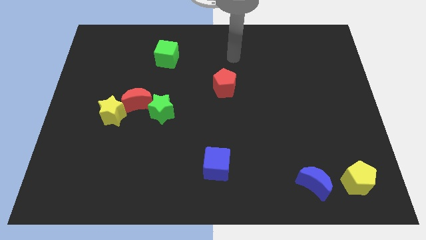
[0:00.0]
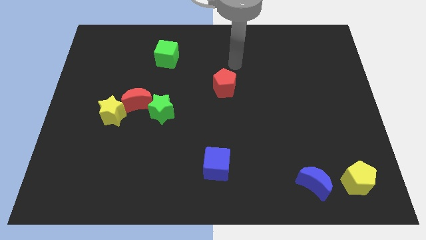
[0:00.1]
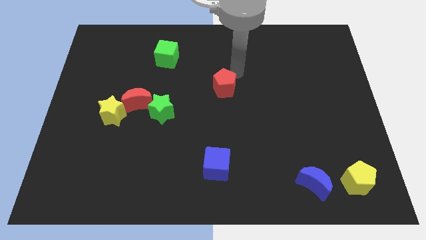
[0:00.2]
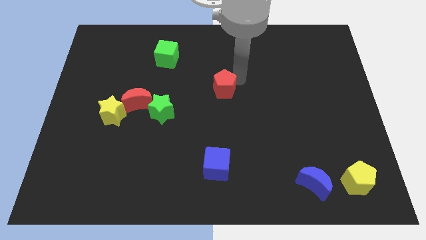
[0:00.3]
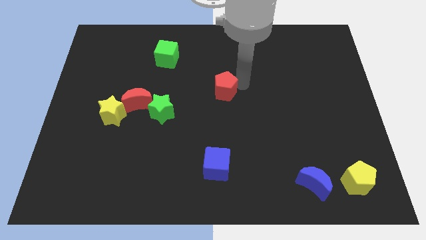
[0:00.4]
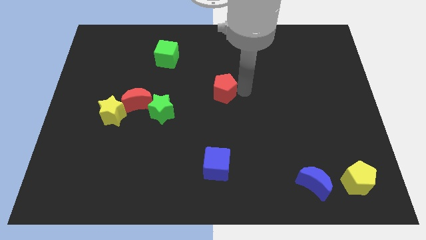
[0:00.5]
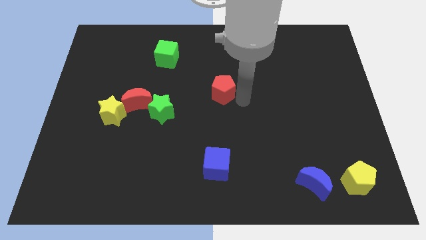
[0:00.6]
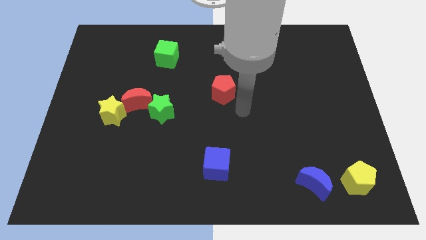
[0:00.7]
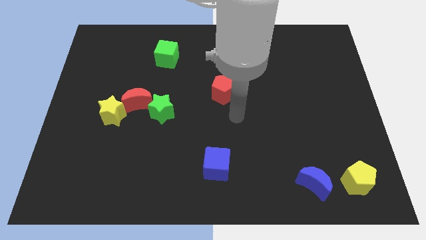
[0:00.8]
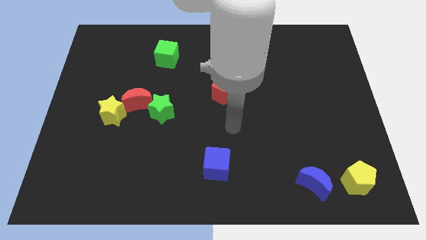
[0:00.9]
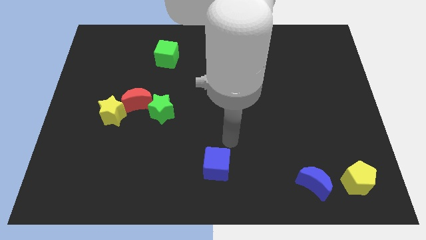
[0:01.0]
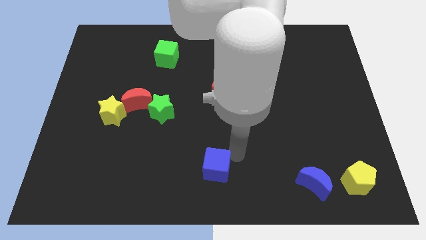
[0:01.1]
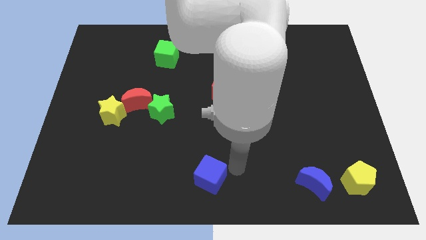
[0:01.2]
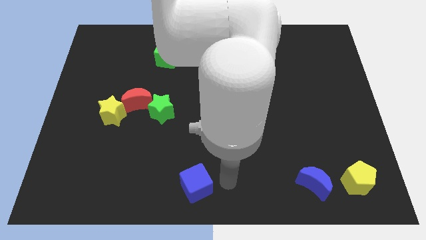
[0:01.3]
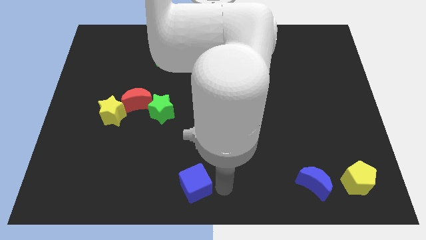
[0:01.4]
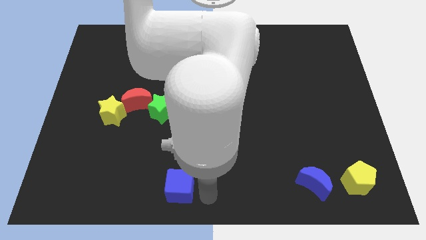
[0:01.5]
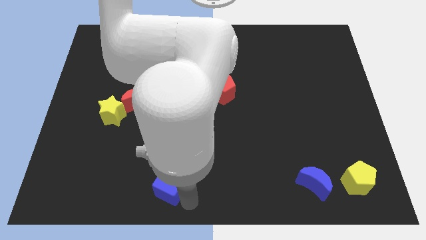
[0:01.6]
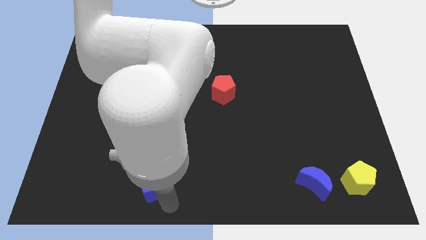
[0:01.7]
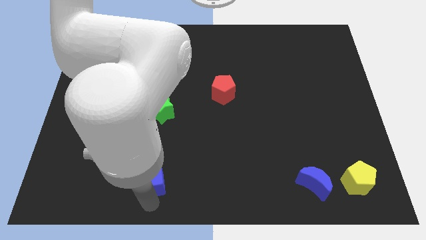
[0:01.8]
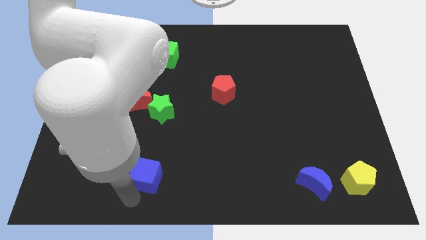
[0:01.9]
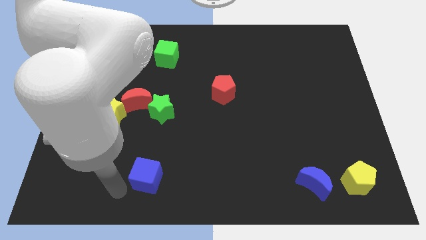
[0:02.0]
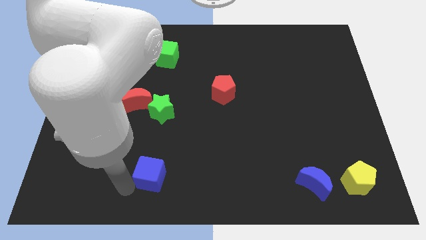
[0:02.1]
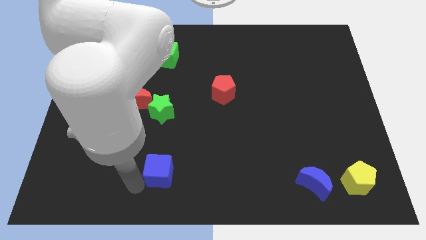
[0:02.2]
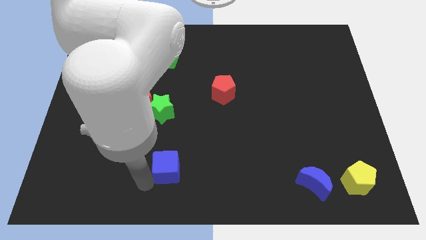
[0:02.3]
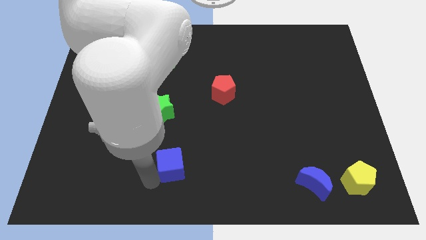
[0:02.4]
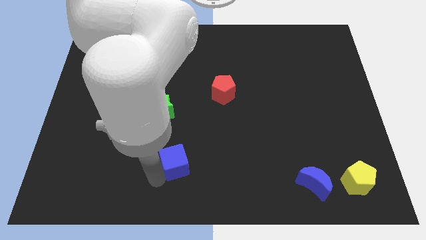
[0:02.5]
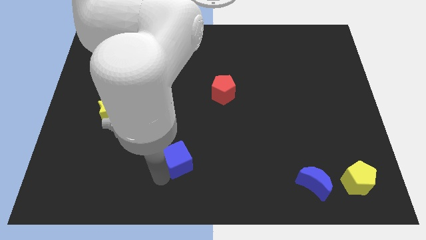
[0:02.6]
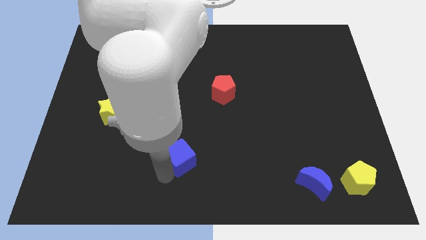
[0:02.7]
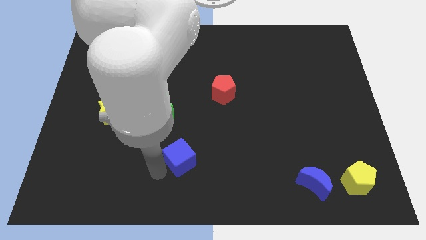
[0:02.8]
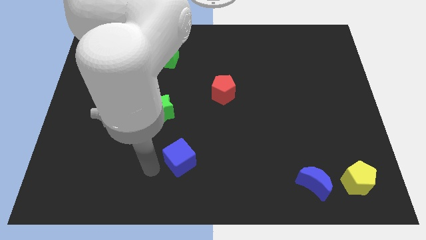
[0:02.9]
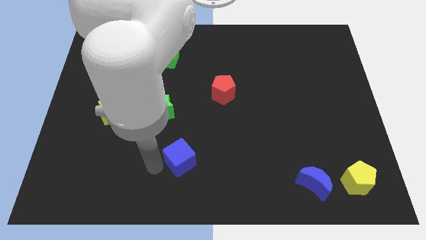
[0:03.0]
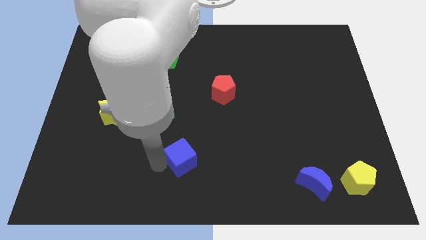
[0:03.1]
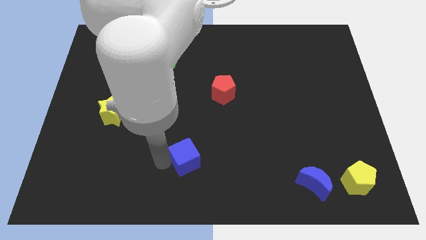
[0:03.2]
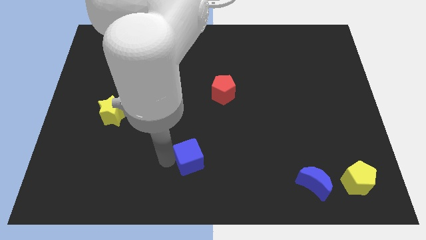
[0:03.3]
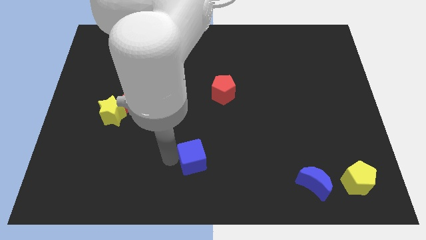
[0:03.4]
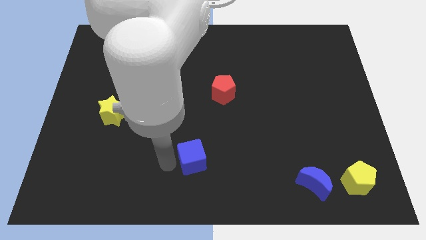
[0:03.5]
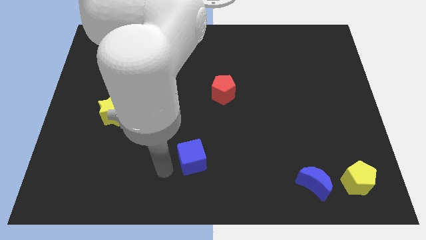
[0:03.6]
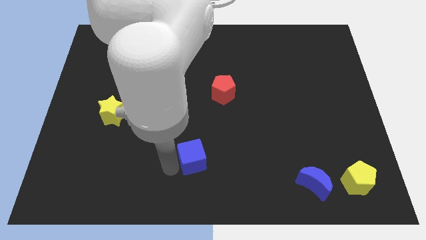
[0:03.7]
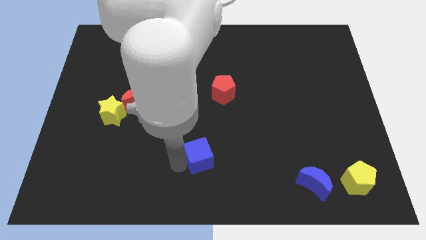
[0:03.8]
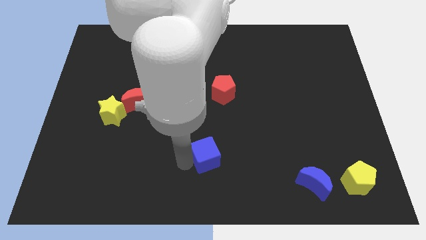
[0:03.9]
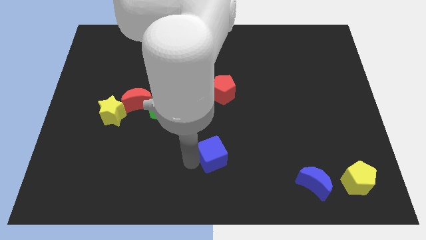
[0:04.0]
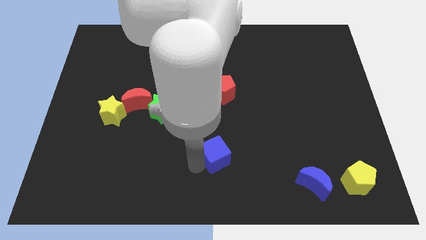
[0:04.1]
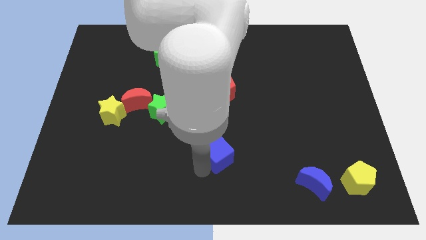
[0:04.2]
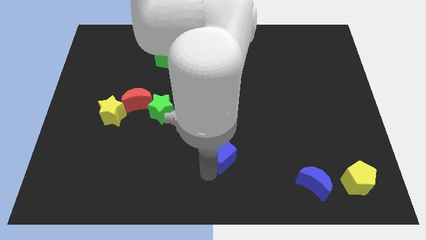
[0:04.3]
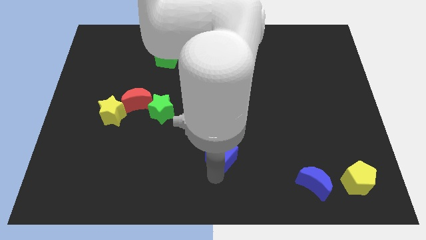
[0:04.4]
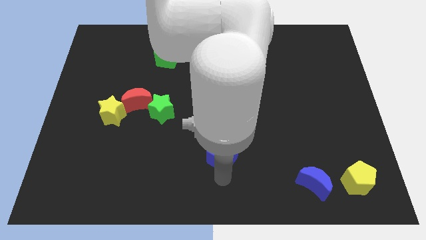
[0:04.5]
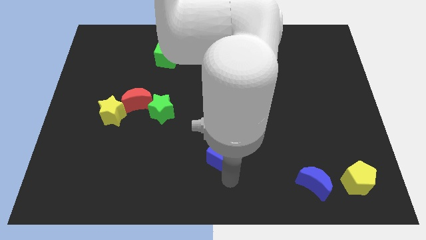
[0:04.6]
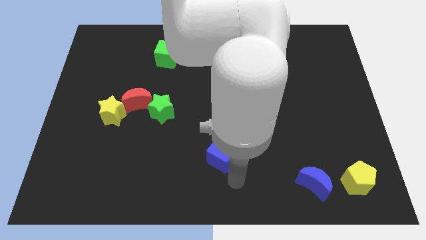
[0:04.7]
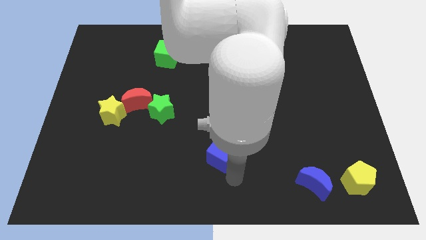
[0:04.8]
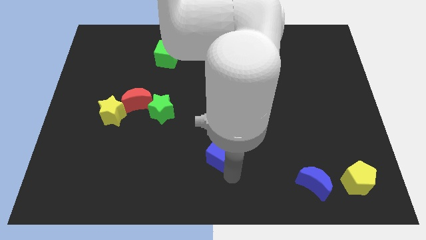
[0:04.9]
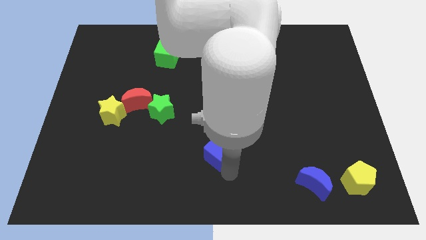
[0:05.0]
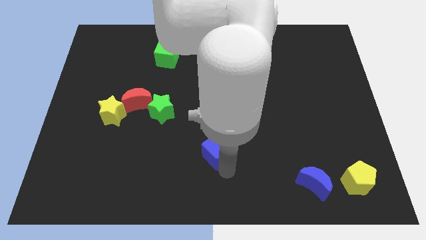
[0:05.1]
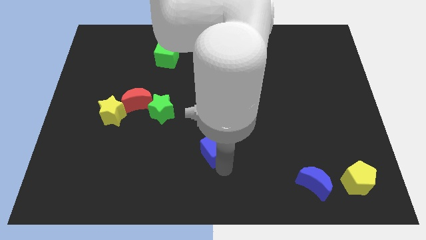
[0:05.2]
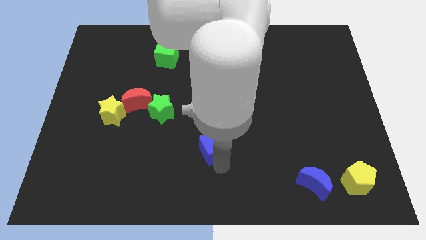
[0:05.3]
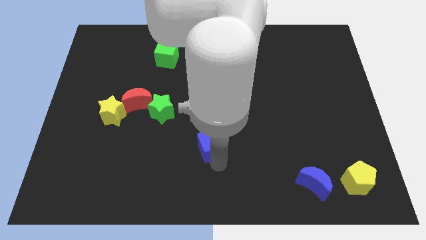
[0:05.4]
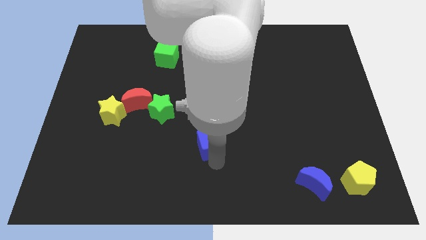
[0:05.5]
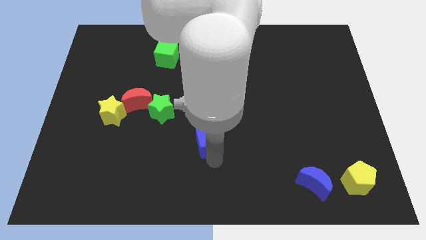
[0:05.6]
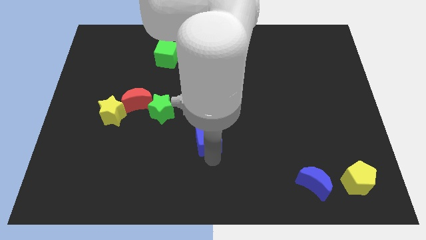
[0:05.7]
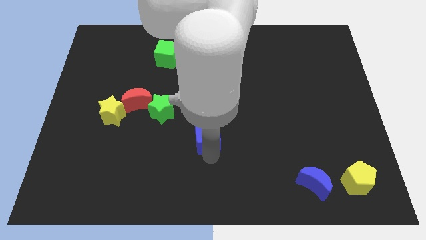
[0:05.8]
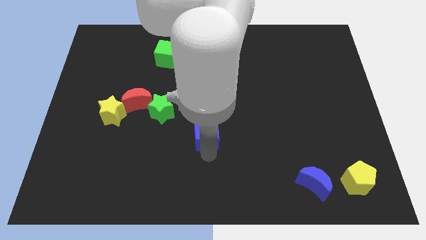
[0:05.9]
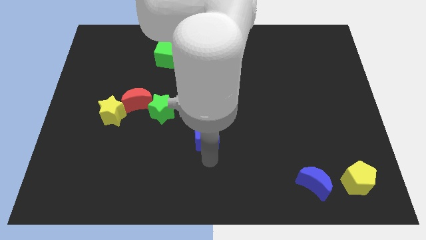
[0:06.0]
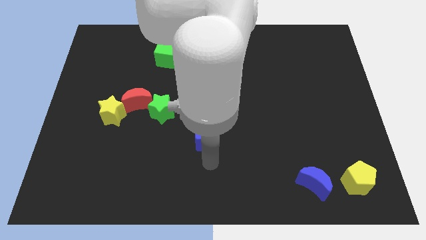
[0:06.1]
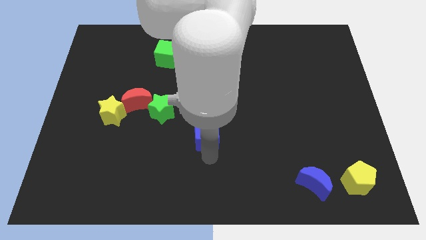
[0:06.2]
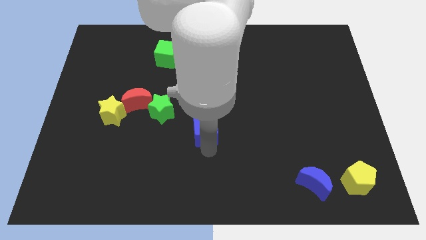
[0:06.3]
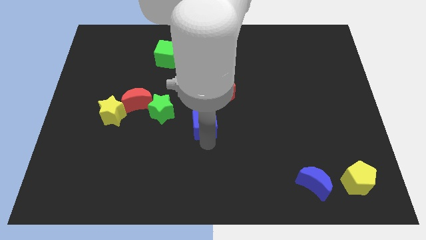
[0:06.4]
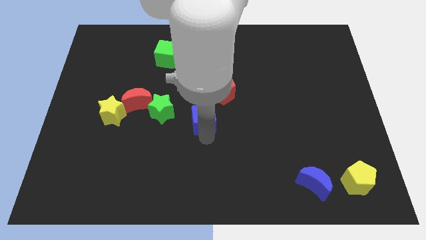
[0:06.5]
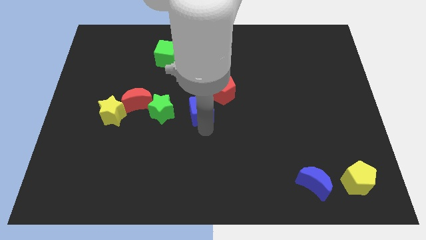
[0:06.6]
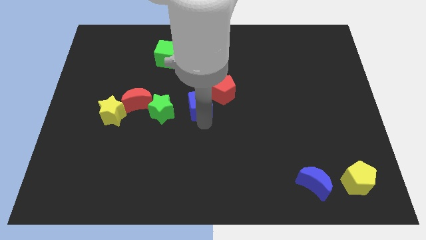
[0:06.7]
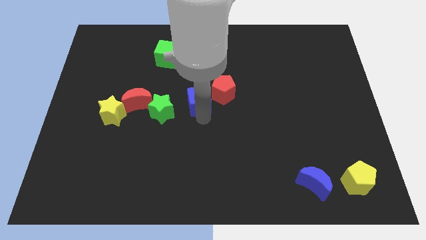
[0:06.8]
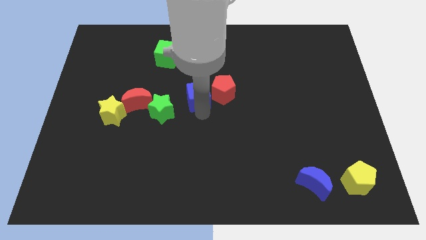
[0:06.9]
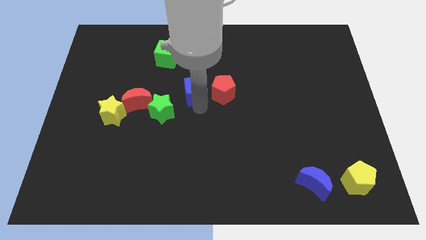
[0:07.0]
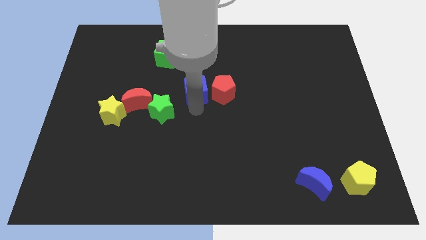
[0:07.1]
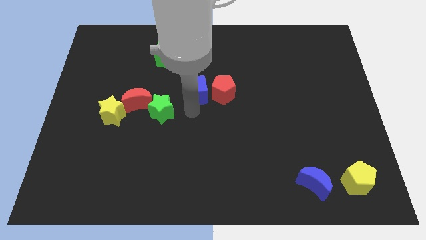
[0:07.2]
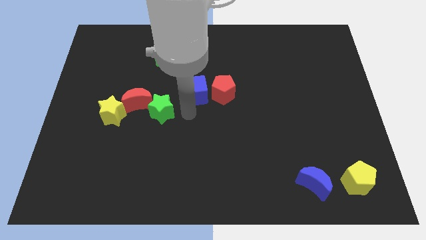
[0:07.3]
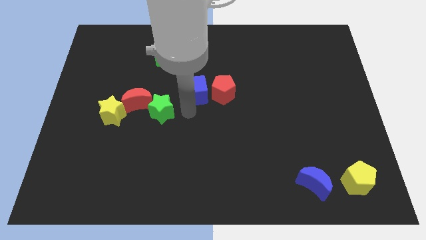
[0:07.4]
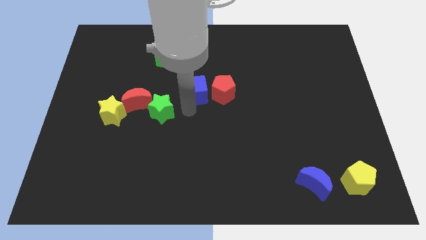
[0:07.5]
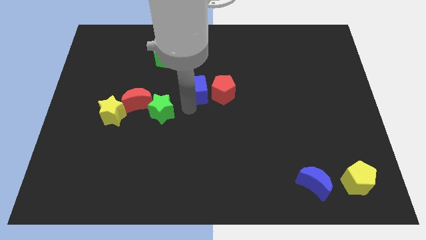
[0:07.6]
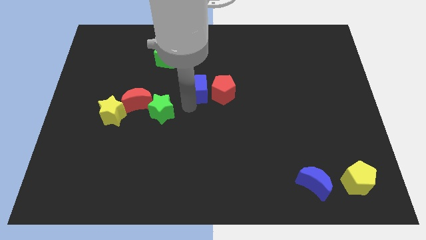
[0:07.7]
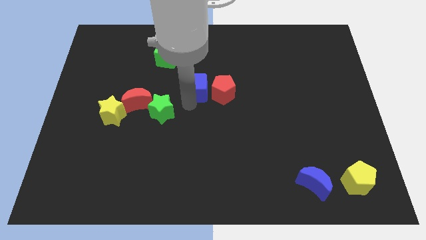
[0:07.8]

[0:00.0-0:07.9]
push the blue cube up

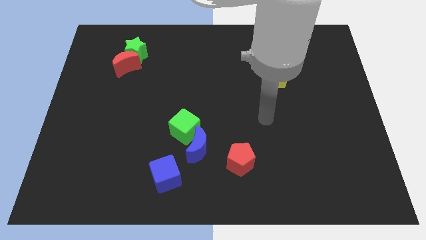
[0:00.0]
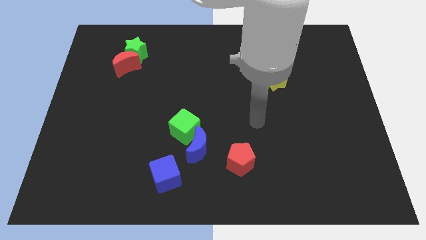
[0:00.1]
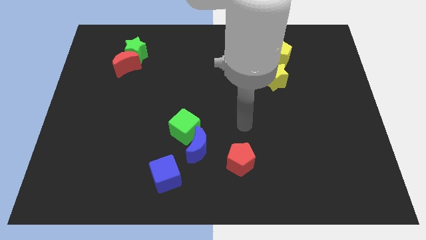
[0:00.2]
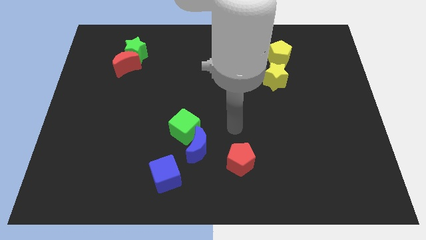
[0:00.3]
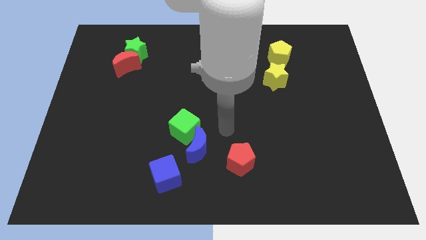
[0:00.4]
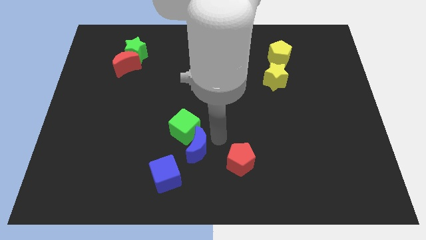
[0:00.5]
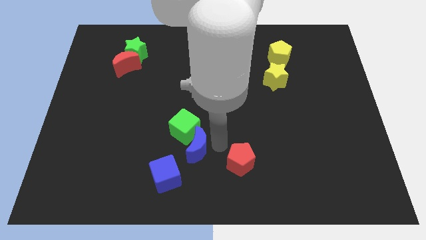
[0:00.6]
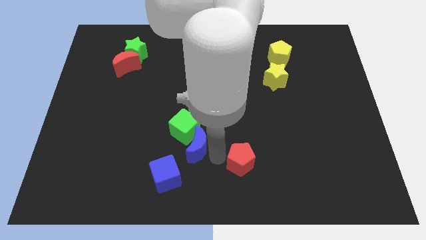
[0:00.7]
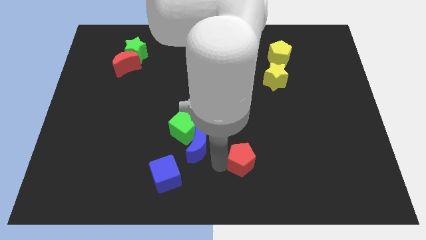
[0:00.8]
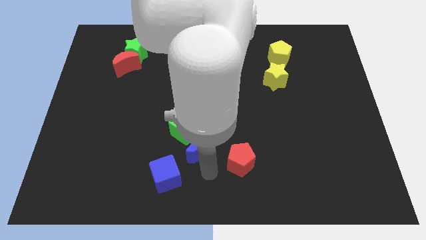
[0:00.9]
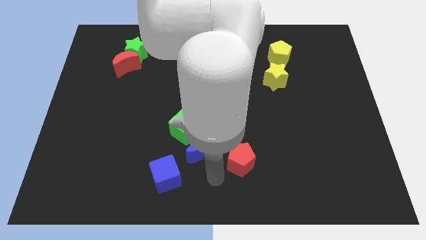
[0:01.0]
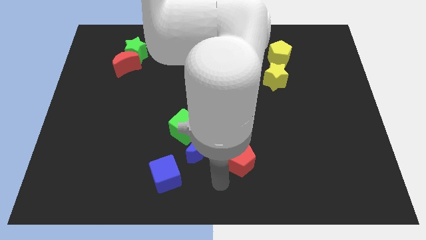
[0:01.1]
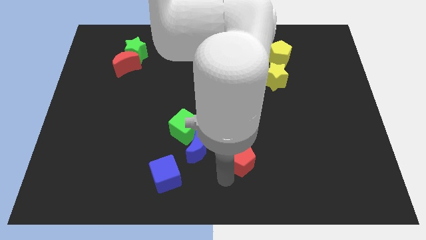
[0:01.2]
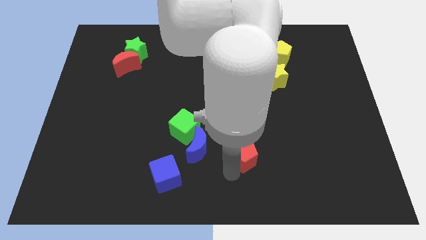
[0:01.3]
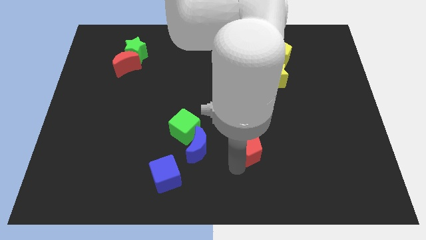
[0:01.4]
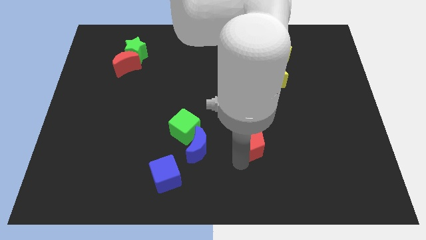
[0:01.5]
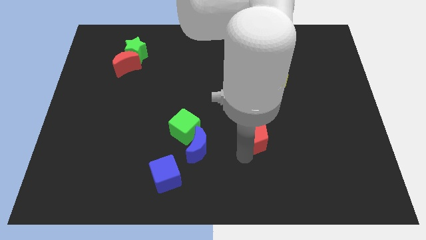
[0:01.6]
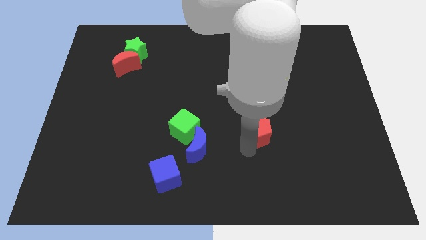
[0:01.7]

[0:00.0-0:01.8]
slide the red pentagon upwards and right slightly
